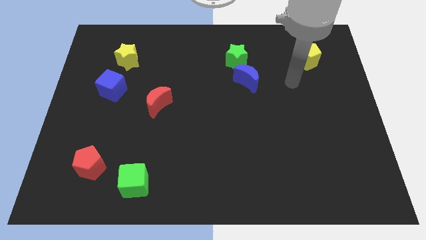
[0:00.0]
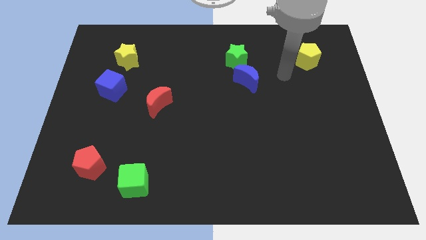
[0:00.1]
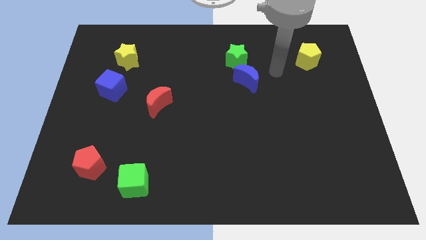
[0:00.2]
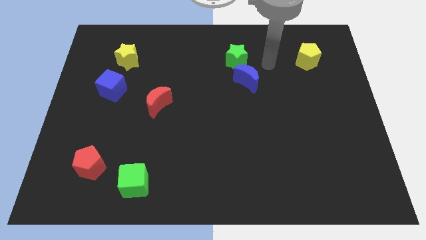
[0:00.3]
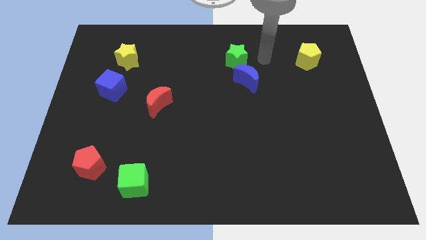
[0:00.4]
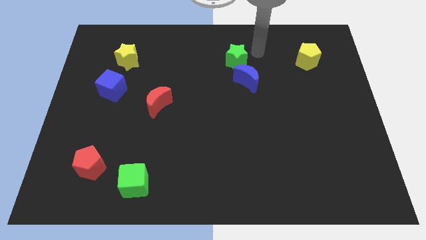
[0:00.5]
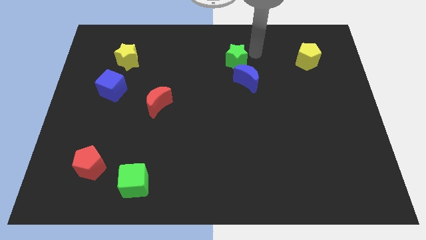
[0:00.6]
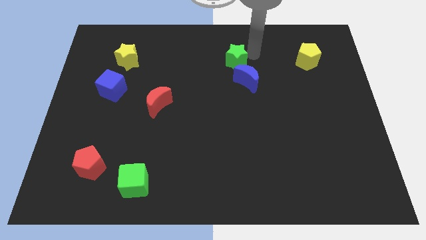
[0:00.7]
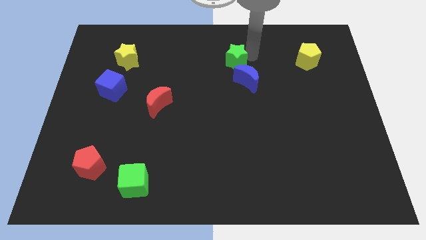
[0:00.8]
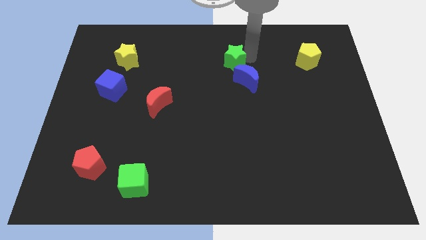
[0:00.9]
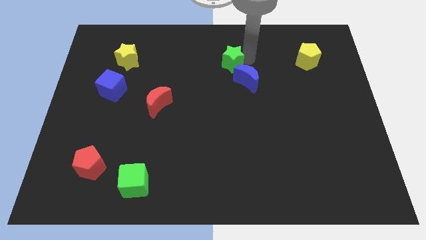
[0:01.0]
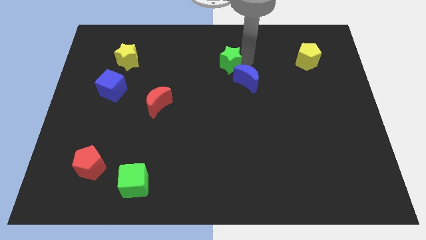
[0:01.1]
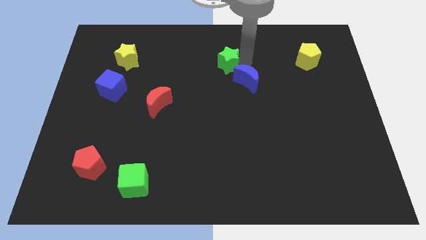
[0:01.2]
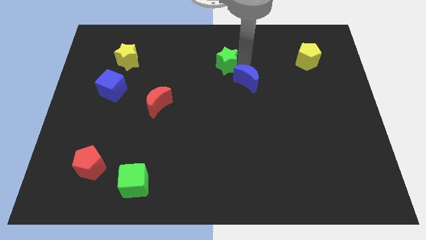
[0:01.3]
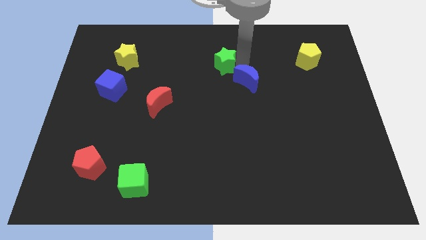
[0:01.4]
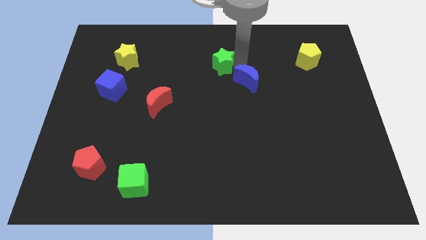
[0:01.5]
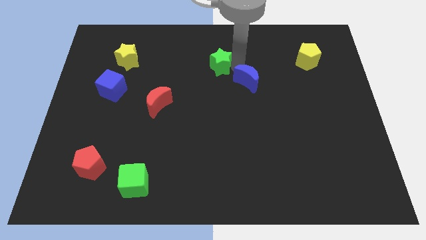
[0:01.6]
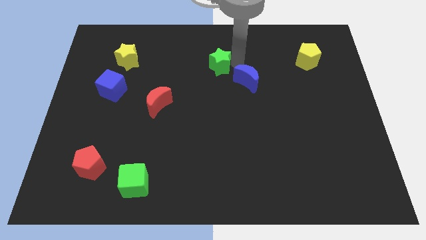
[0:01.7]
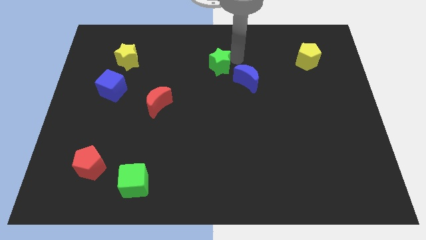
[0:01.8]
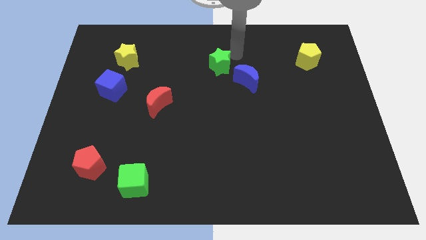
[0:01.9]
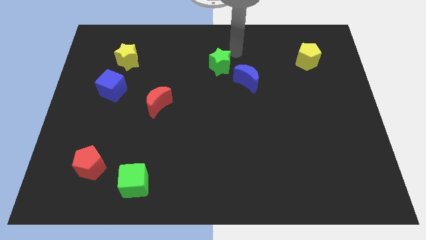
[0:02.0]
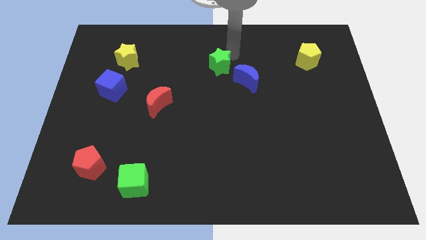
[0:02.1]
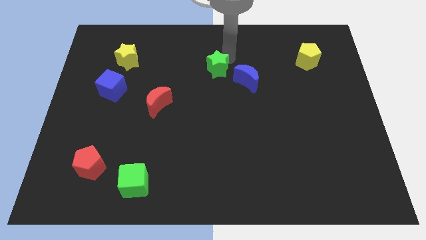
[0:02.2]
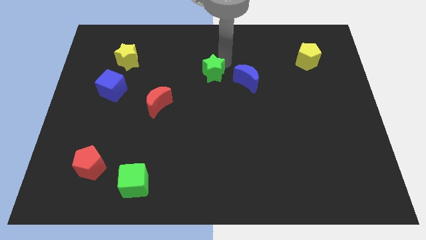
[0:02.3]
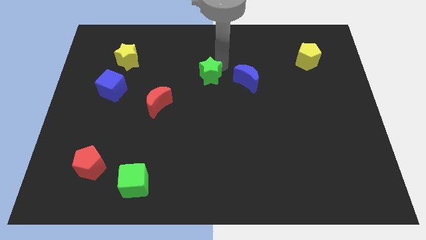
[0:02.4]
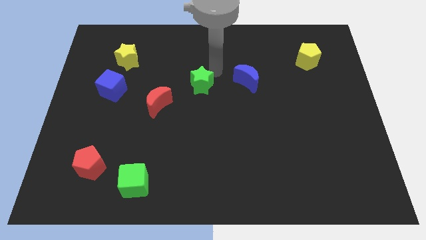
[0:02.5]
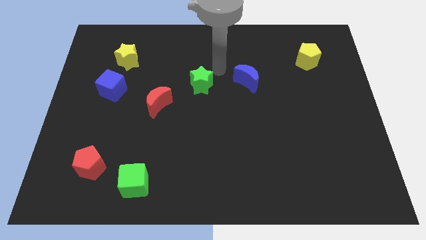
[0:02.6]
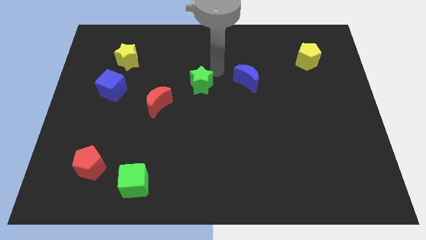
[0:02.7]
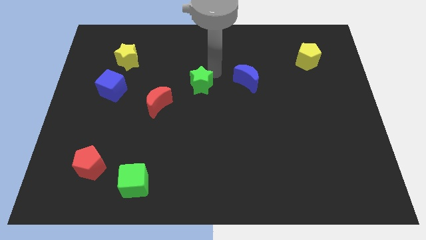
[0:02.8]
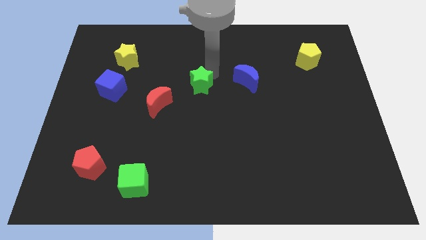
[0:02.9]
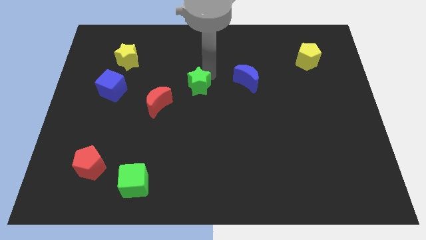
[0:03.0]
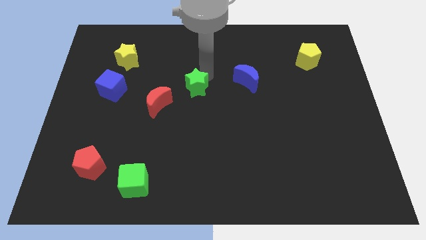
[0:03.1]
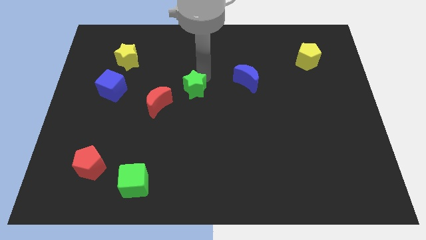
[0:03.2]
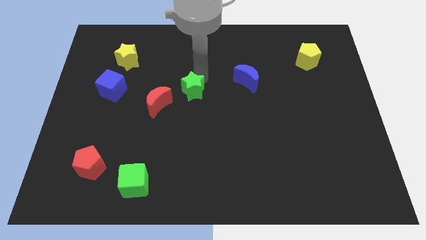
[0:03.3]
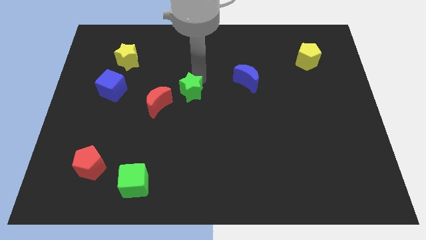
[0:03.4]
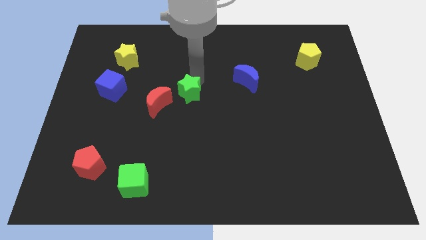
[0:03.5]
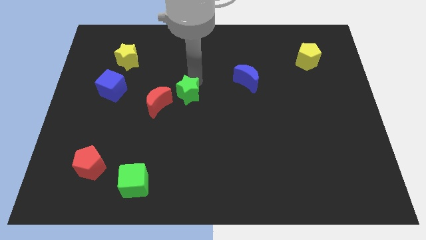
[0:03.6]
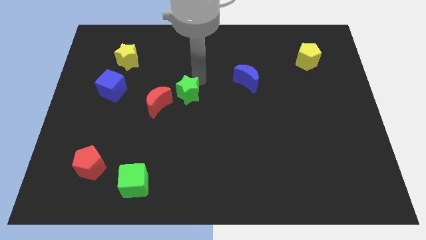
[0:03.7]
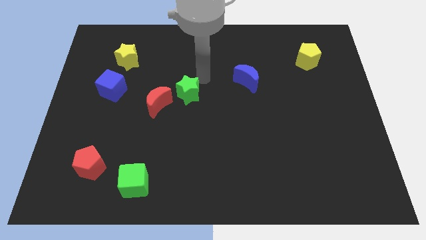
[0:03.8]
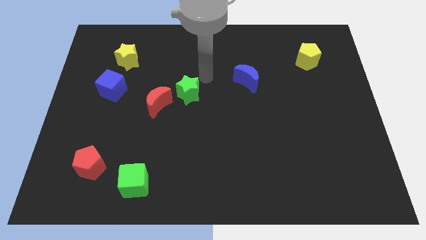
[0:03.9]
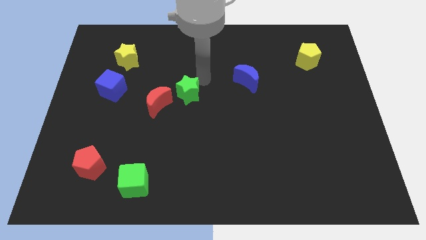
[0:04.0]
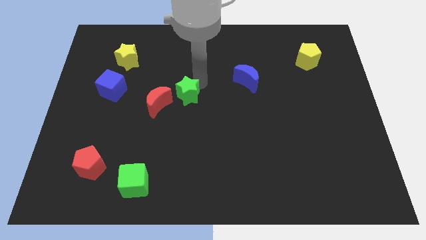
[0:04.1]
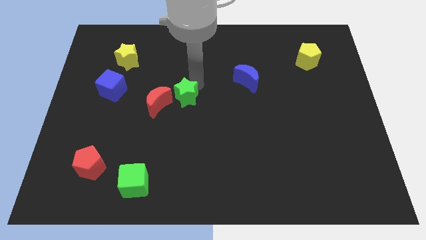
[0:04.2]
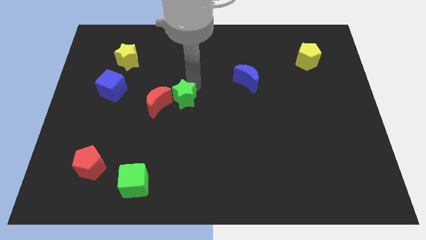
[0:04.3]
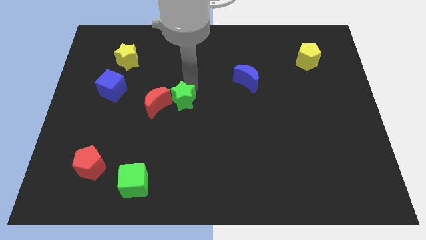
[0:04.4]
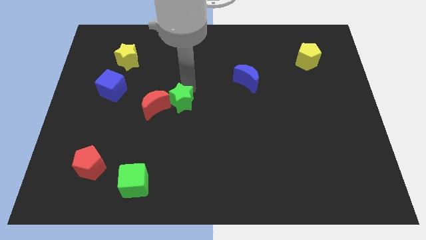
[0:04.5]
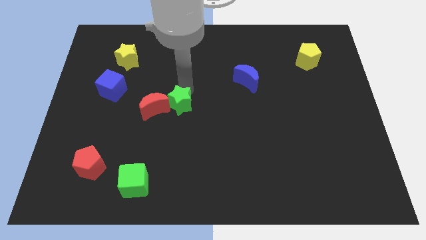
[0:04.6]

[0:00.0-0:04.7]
slide the green star downwards and to the left

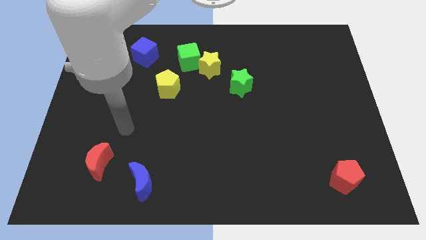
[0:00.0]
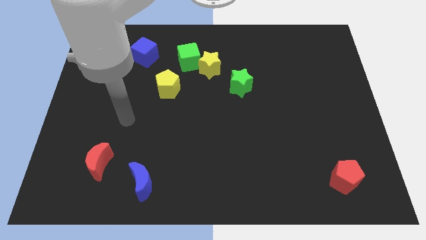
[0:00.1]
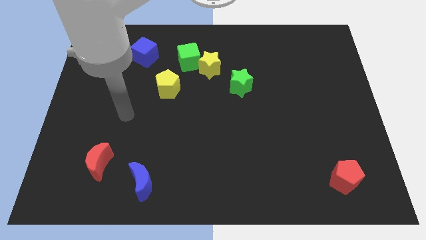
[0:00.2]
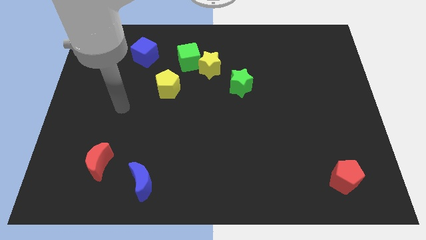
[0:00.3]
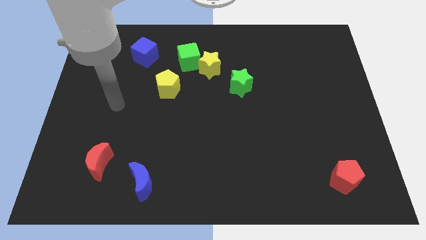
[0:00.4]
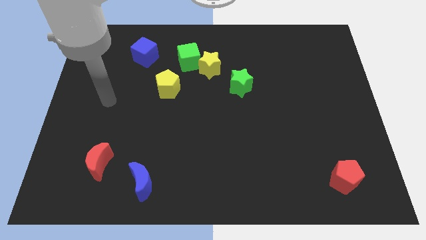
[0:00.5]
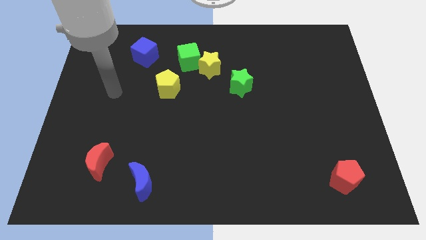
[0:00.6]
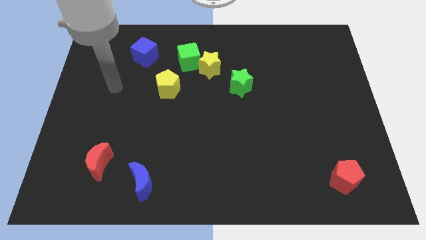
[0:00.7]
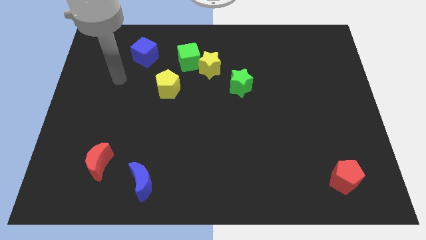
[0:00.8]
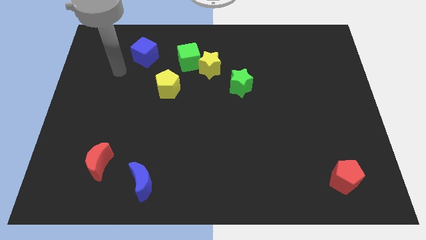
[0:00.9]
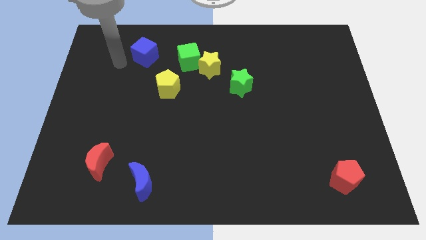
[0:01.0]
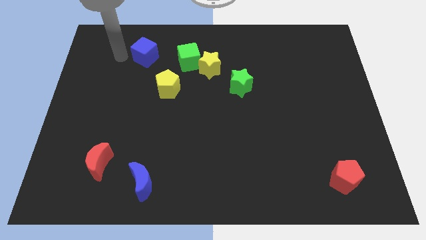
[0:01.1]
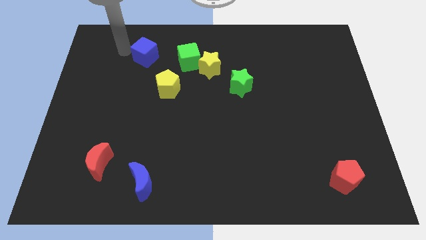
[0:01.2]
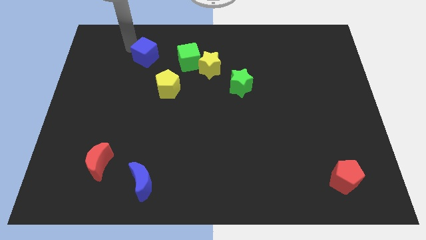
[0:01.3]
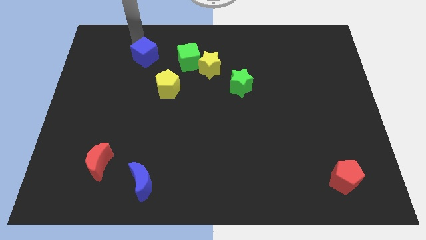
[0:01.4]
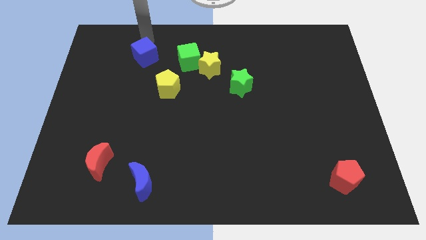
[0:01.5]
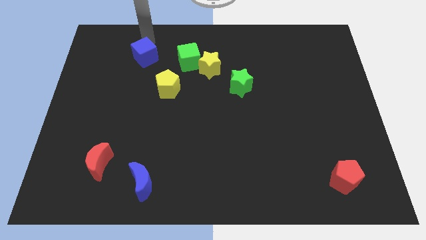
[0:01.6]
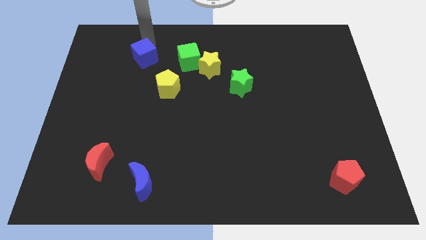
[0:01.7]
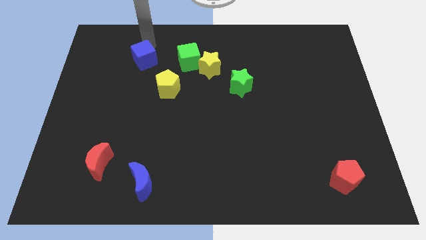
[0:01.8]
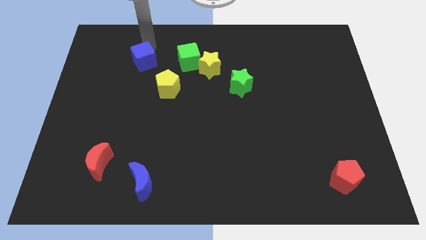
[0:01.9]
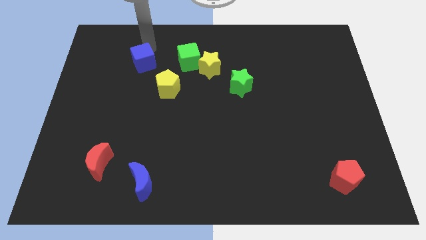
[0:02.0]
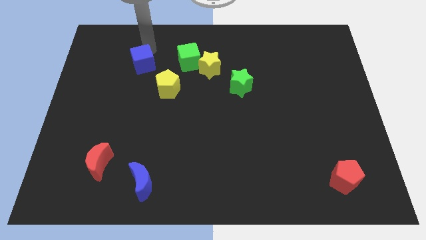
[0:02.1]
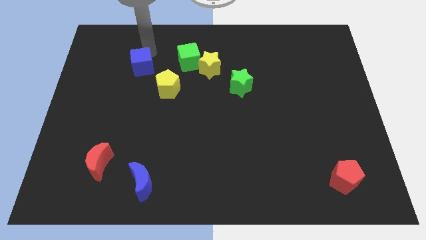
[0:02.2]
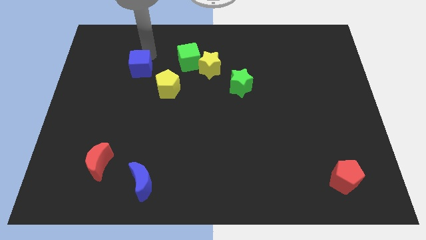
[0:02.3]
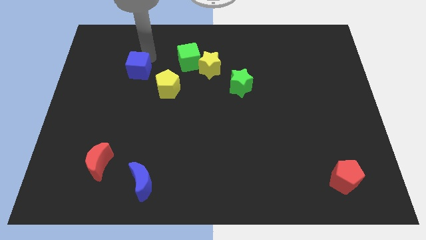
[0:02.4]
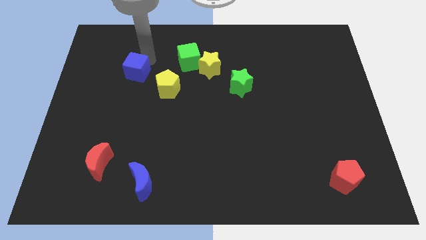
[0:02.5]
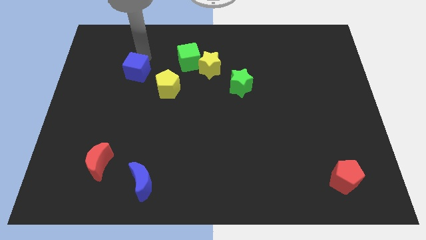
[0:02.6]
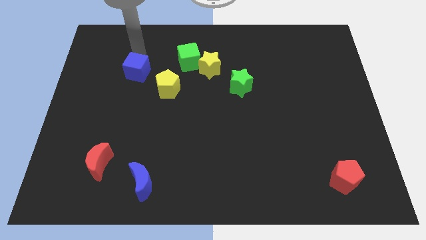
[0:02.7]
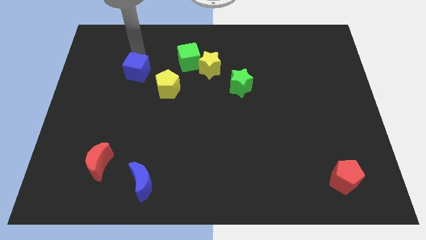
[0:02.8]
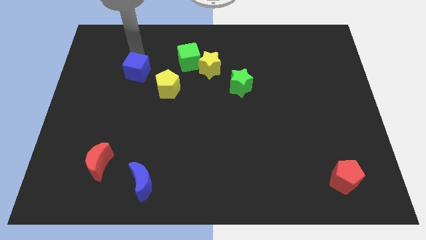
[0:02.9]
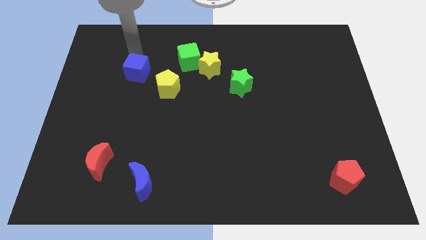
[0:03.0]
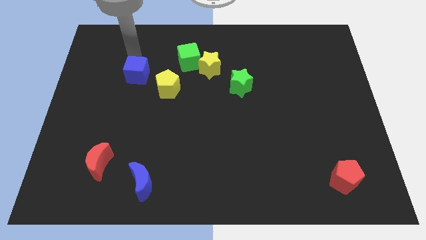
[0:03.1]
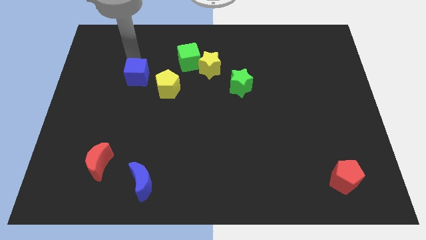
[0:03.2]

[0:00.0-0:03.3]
move the blue cube down somewhat

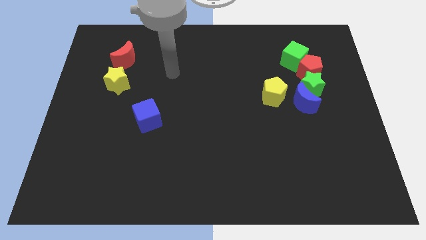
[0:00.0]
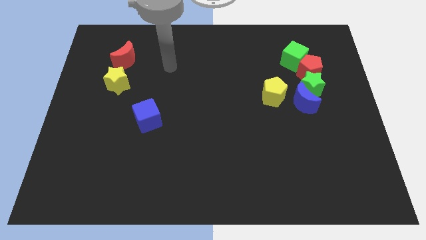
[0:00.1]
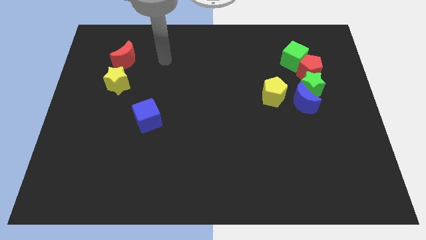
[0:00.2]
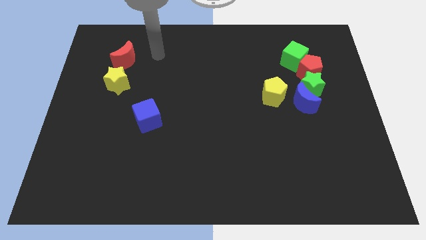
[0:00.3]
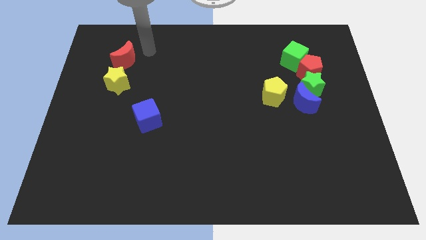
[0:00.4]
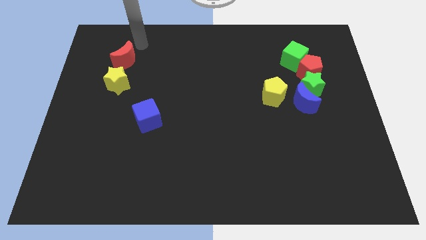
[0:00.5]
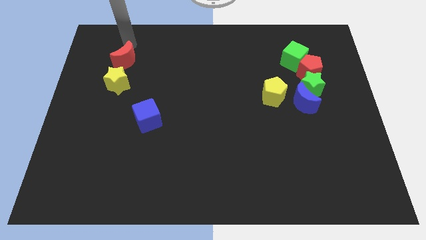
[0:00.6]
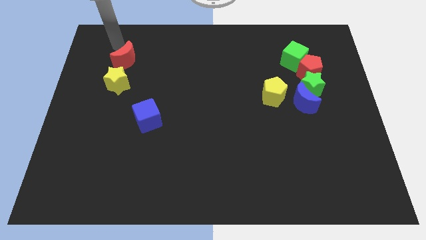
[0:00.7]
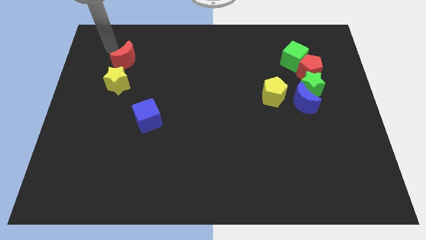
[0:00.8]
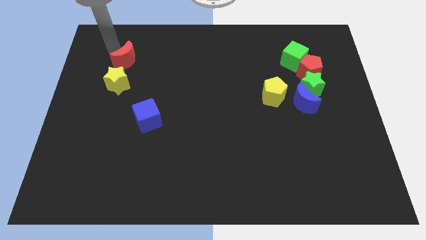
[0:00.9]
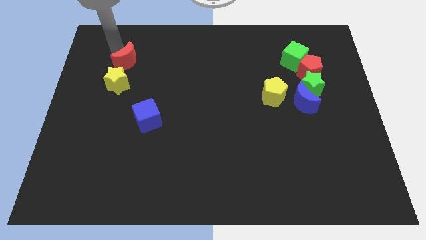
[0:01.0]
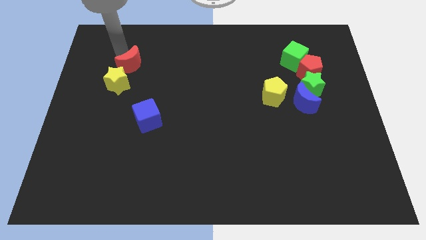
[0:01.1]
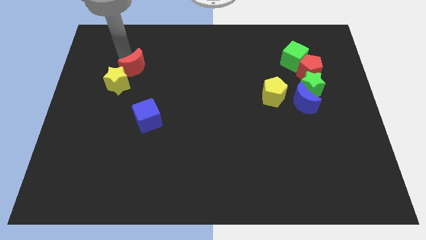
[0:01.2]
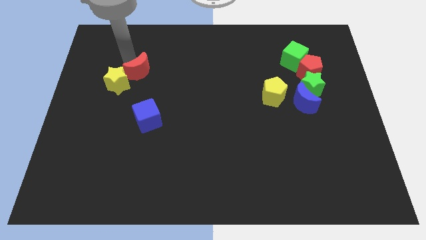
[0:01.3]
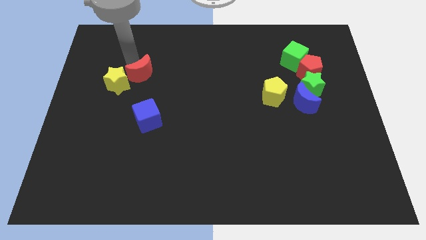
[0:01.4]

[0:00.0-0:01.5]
slide the red moon a bit down and then to the right
